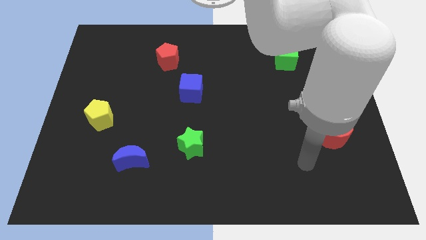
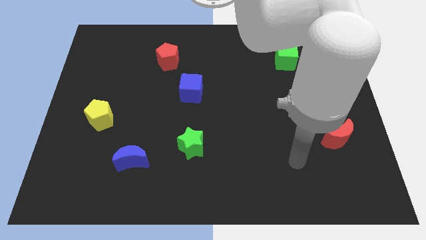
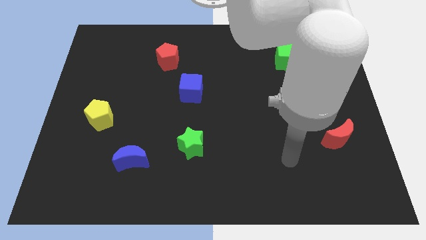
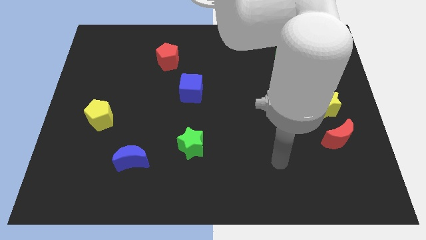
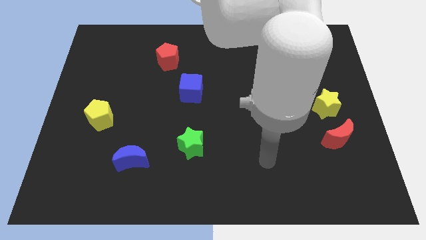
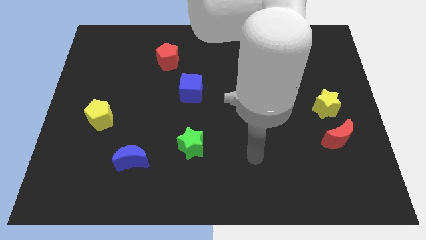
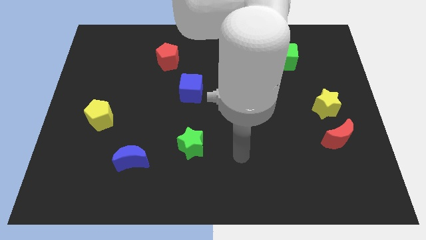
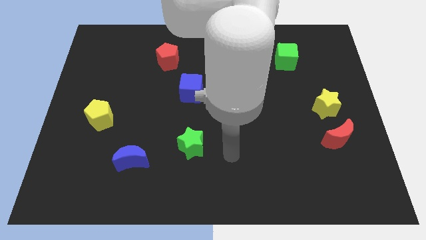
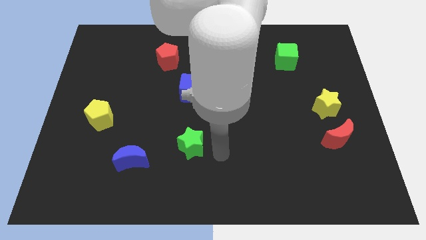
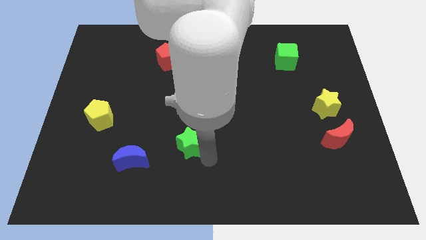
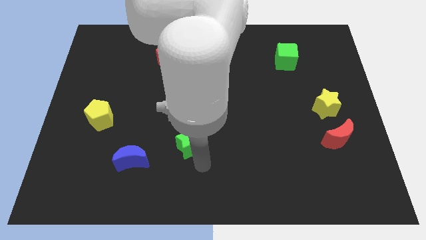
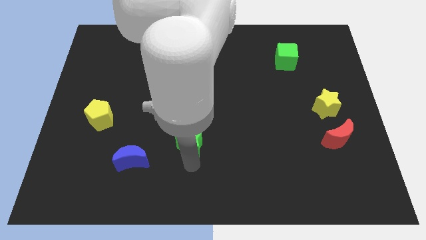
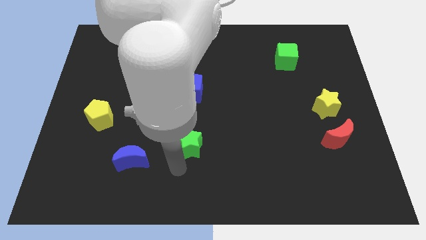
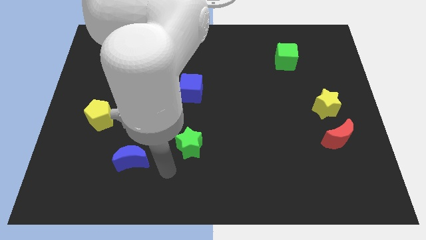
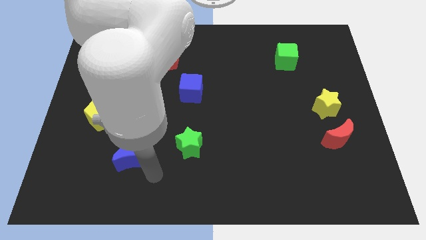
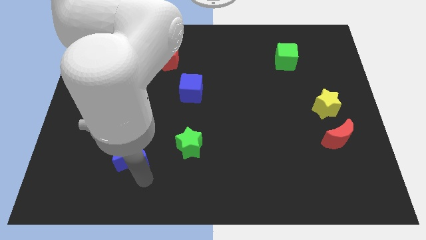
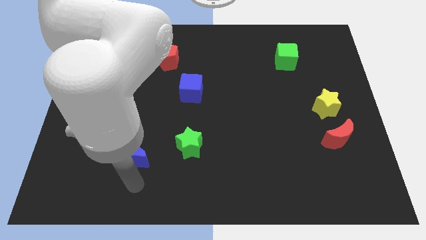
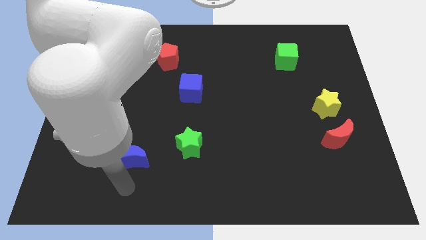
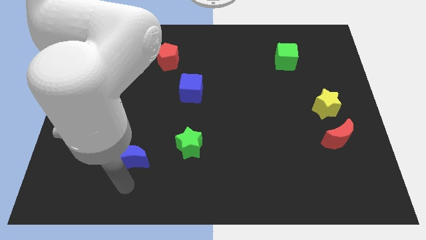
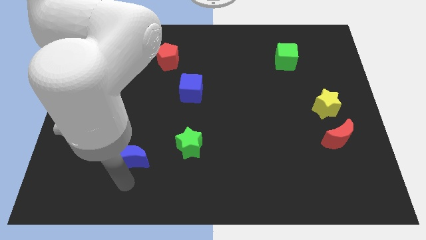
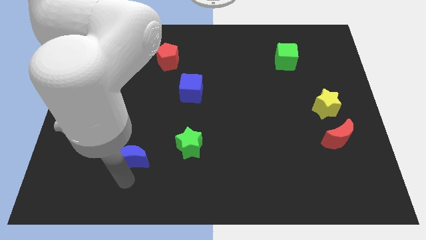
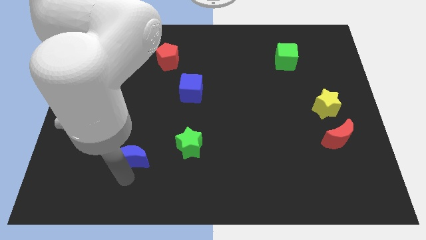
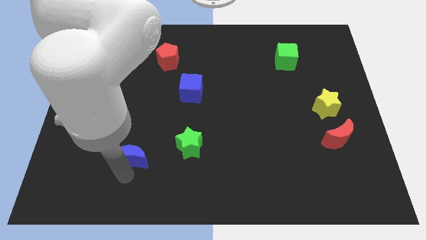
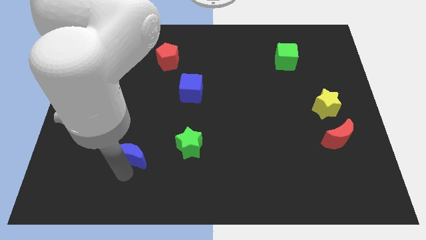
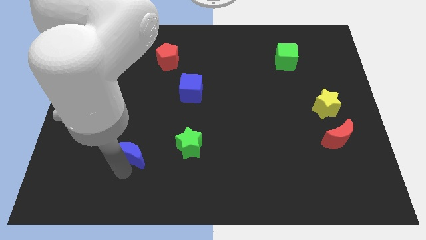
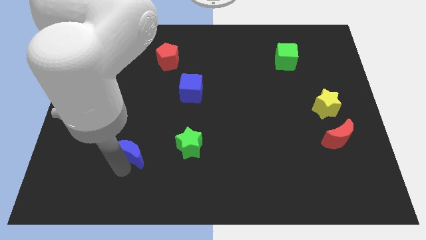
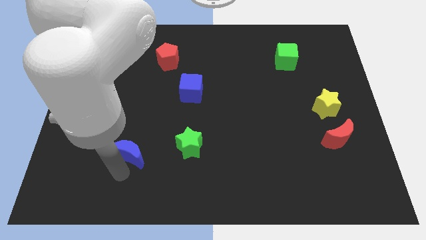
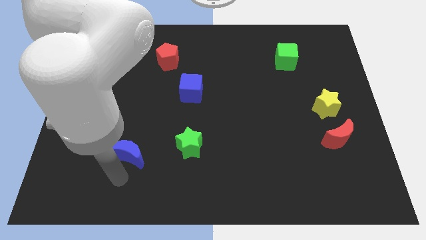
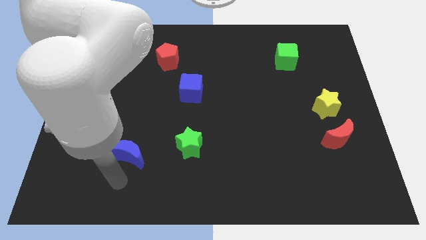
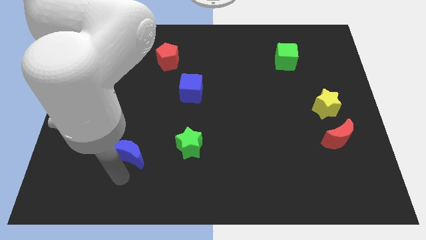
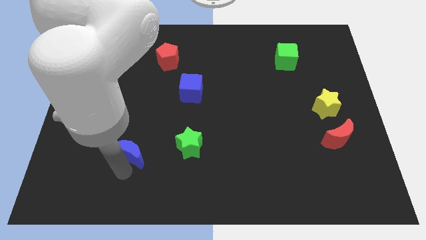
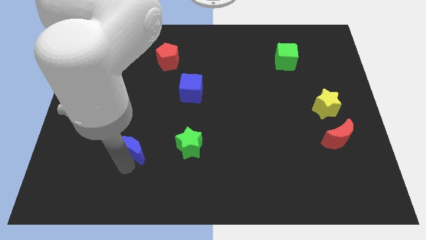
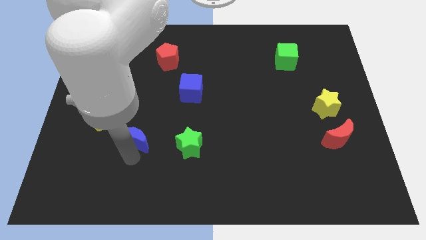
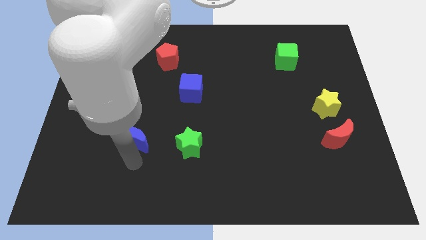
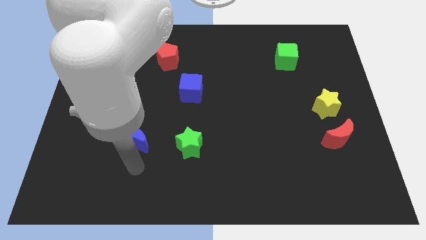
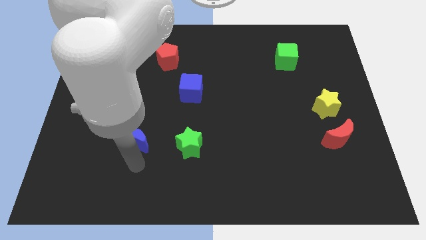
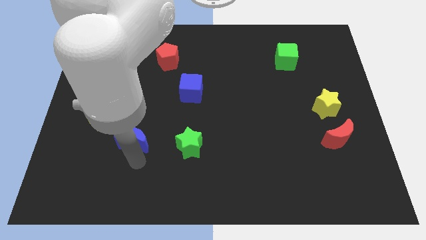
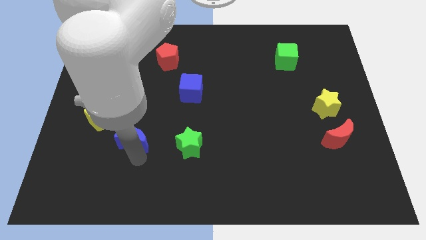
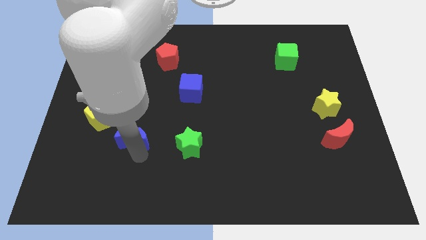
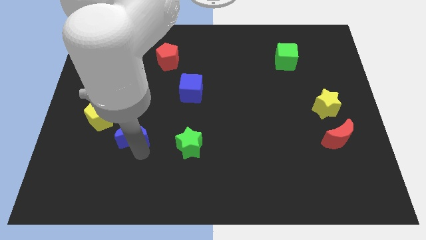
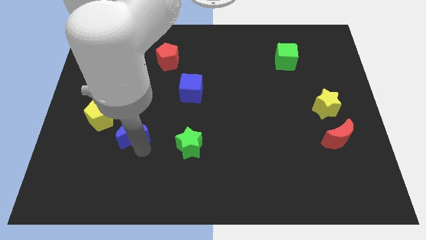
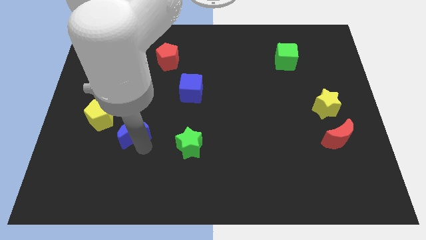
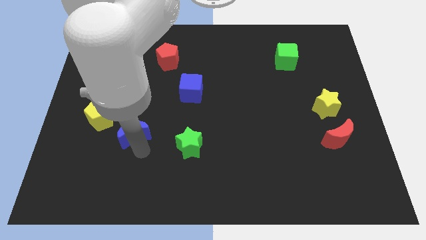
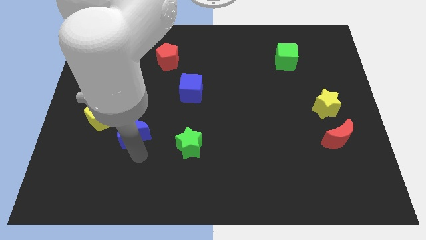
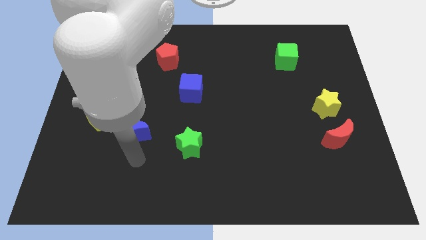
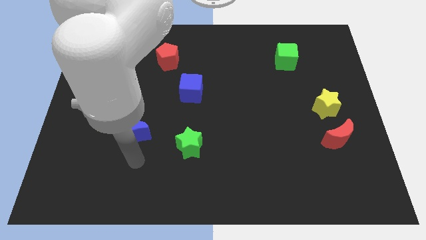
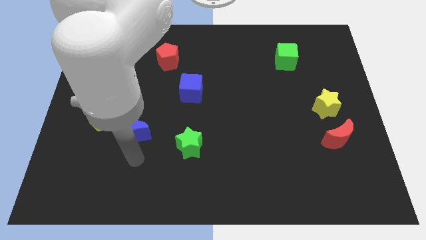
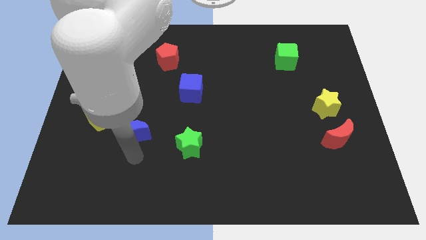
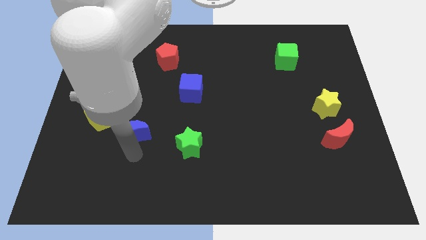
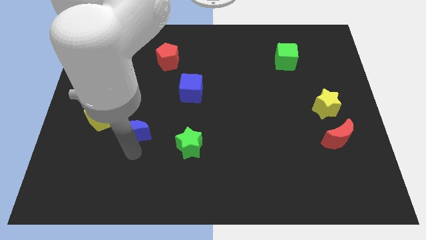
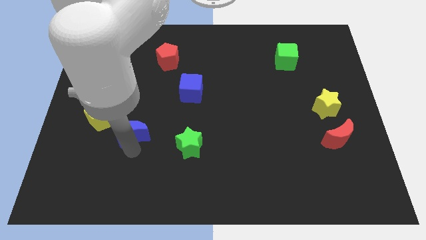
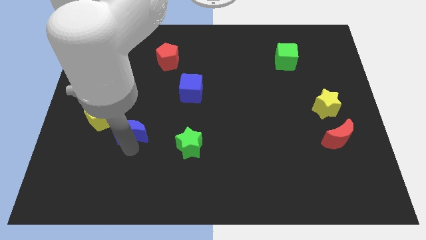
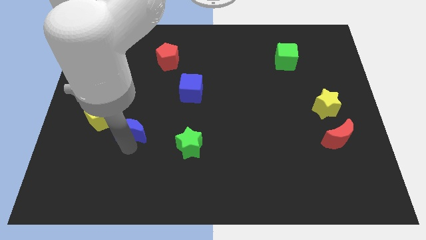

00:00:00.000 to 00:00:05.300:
push the blue moon upwards a little bit

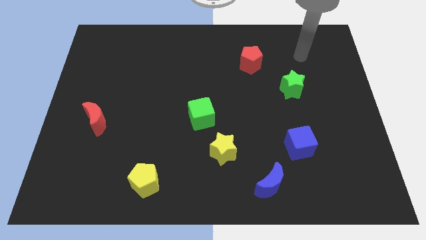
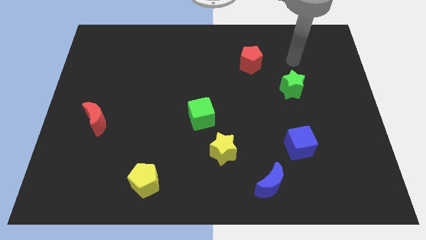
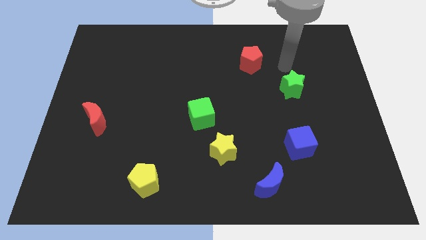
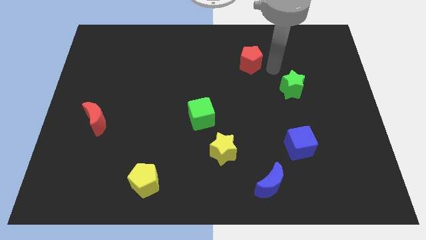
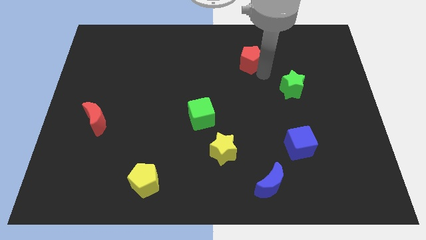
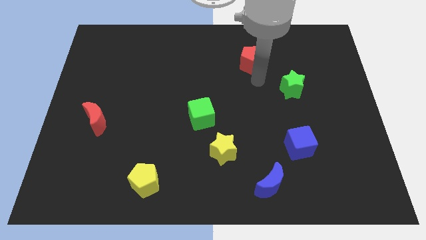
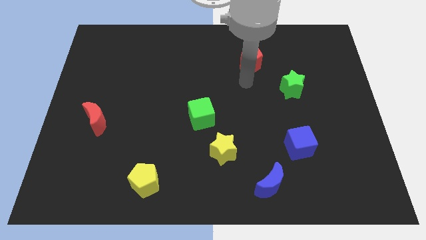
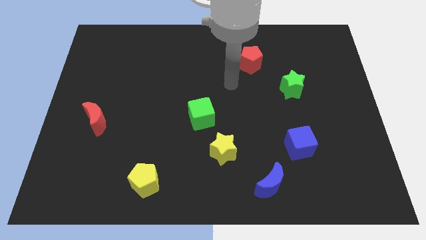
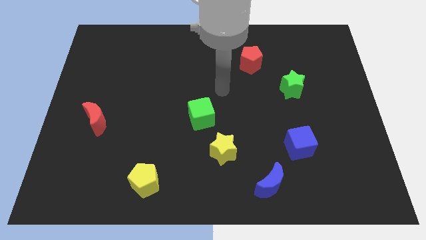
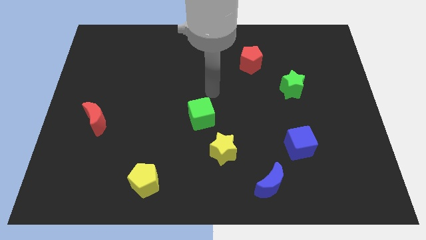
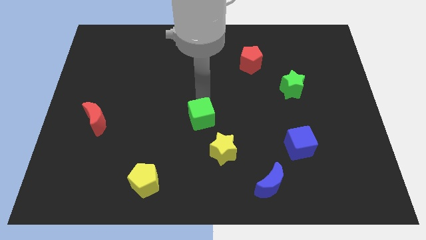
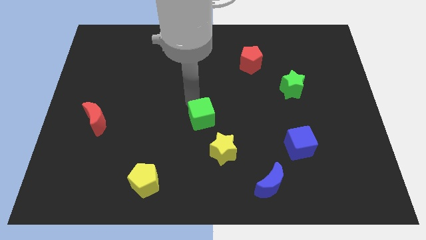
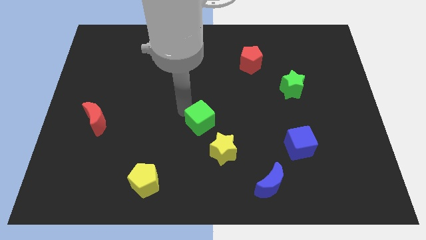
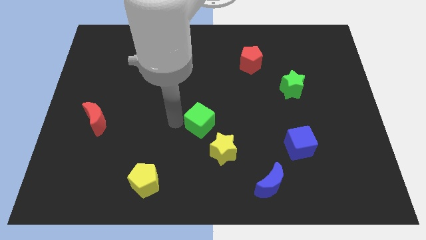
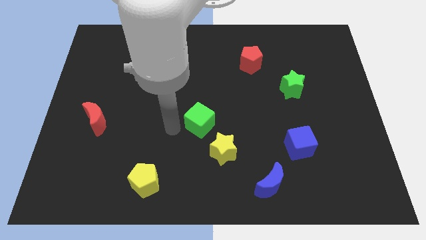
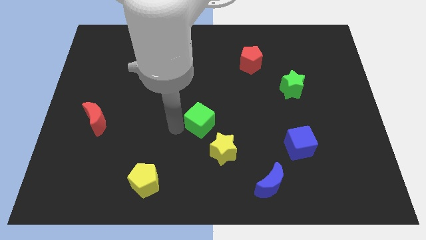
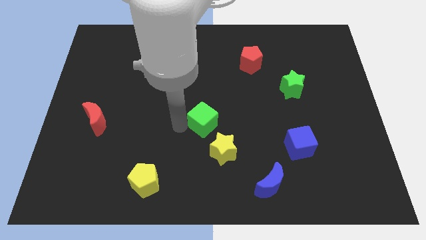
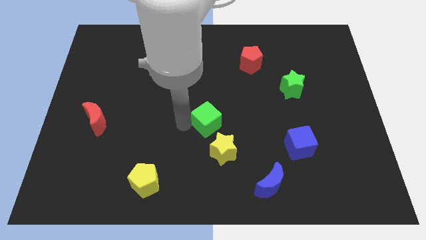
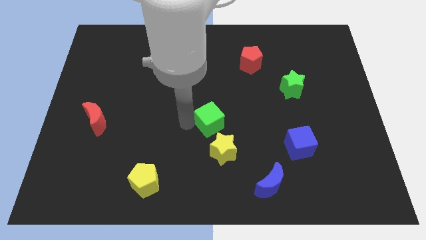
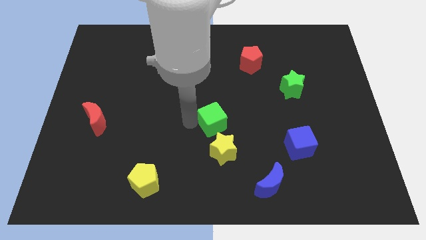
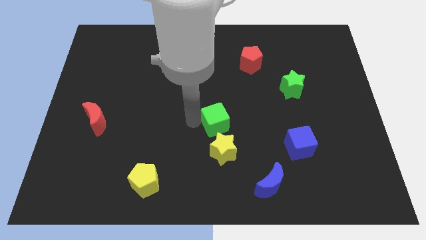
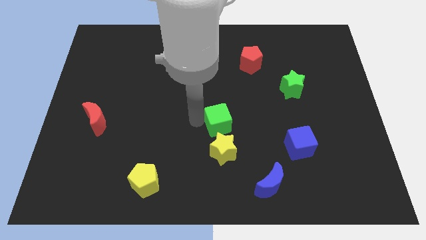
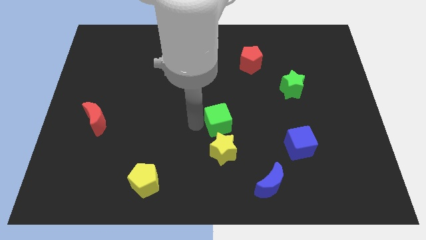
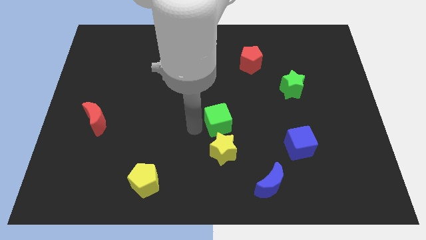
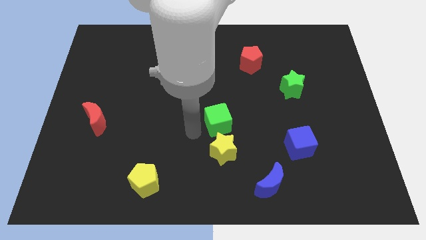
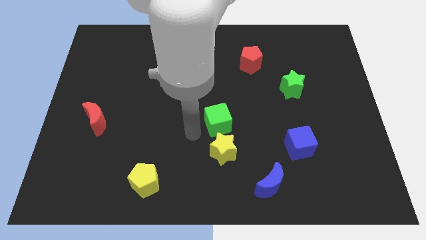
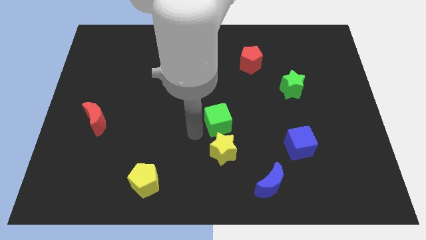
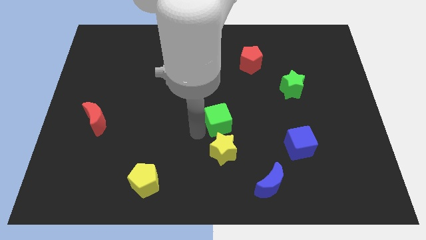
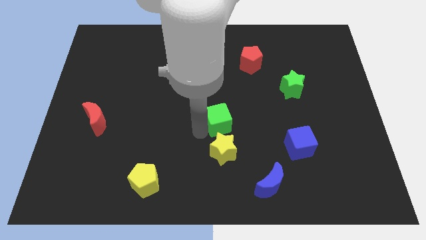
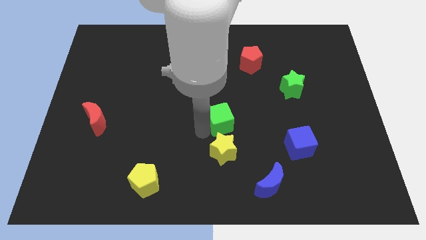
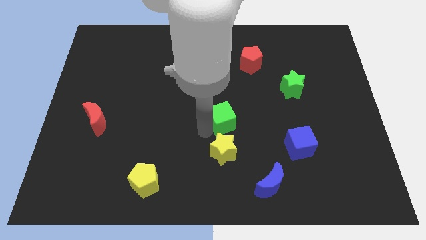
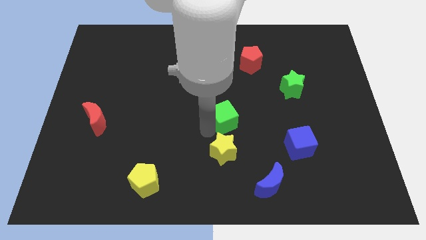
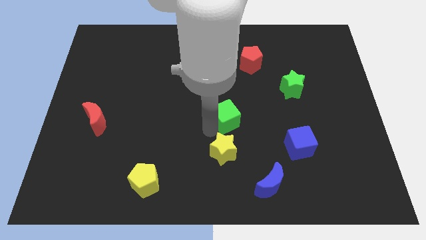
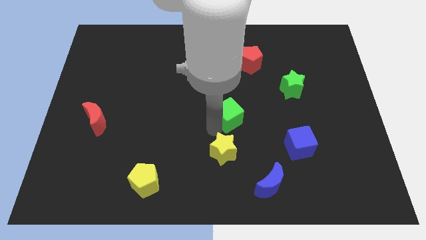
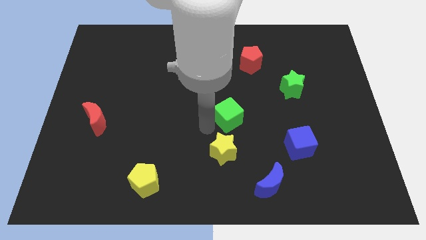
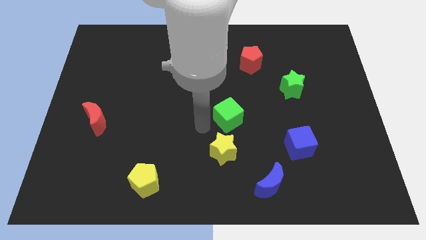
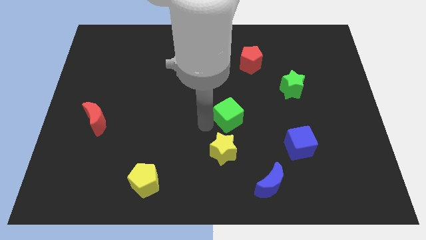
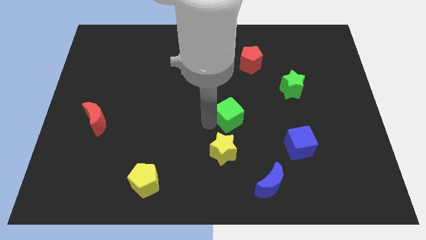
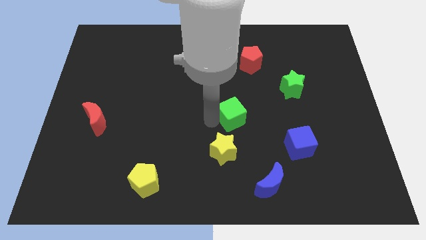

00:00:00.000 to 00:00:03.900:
move the green cube right a little
